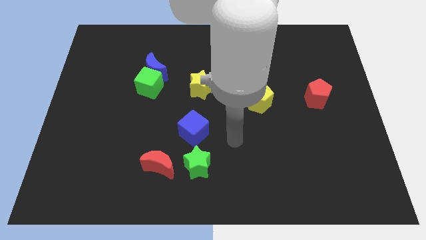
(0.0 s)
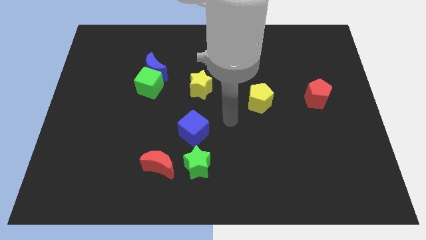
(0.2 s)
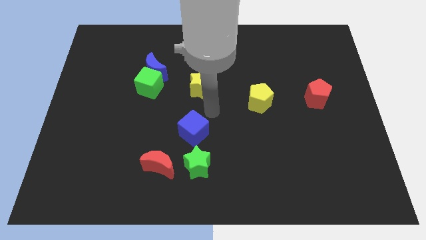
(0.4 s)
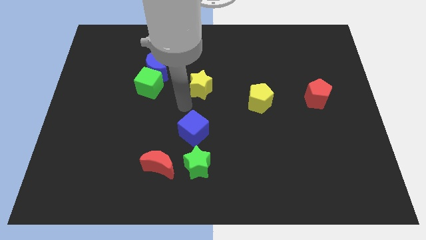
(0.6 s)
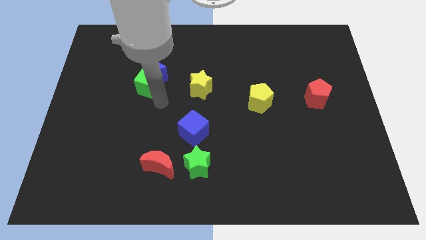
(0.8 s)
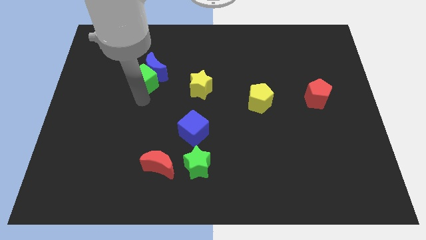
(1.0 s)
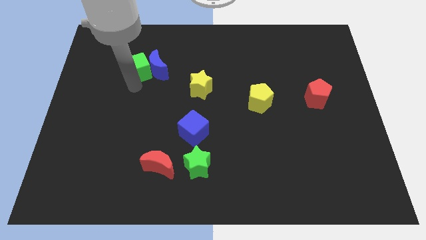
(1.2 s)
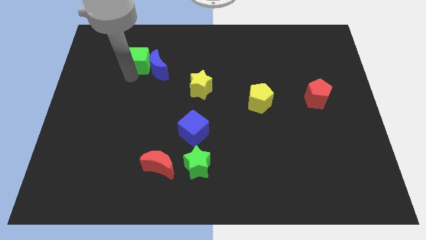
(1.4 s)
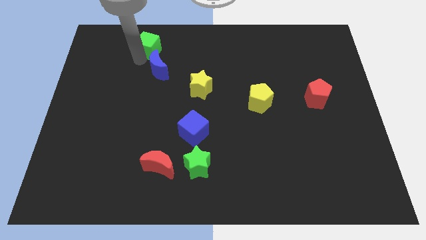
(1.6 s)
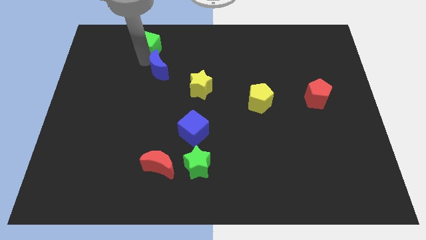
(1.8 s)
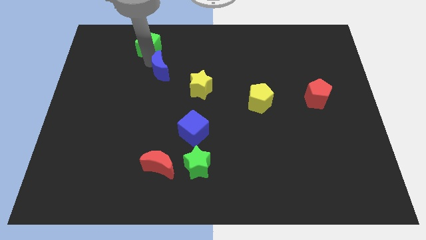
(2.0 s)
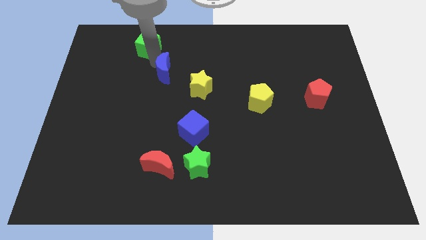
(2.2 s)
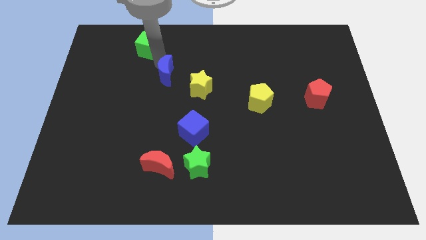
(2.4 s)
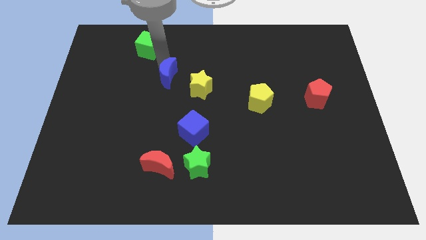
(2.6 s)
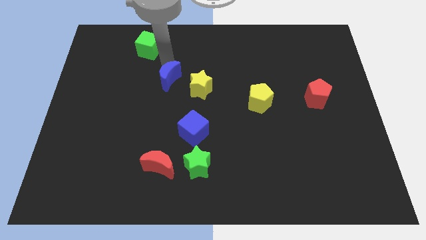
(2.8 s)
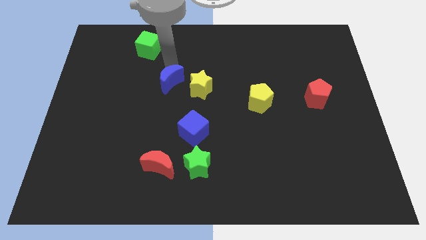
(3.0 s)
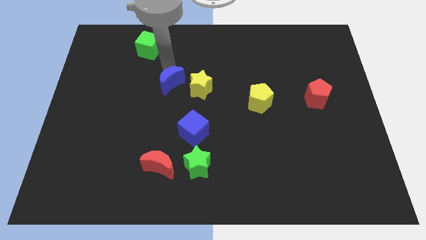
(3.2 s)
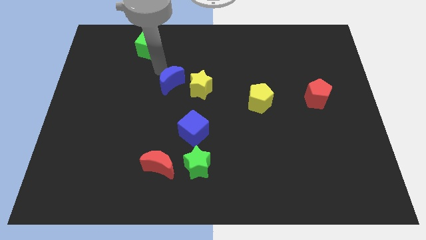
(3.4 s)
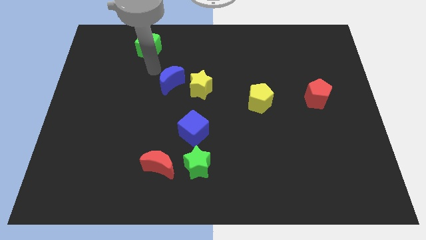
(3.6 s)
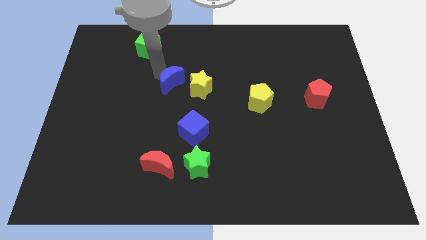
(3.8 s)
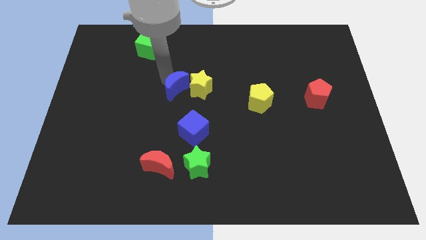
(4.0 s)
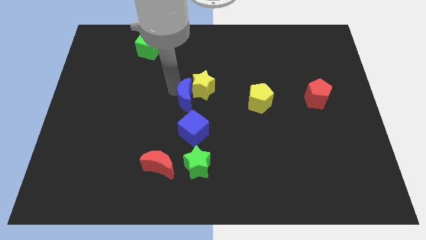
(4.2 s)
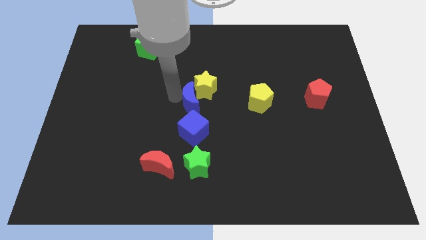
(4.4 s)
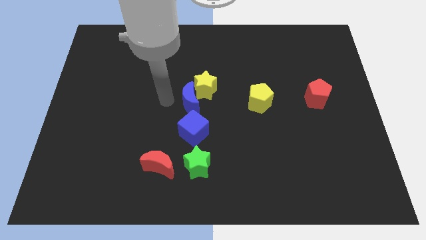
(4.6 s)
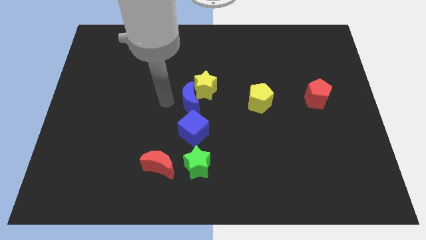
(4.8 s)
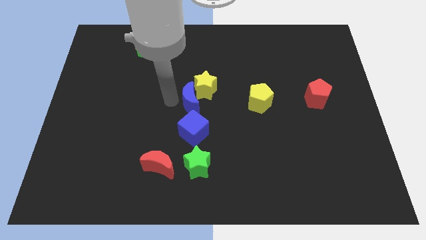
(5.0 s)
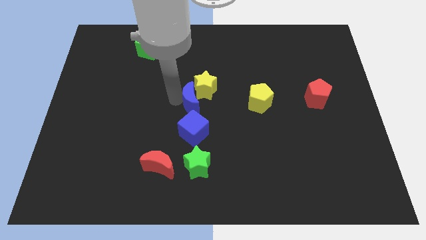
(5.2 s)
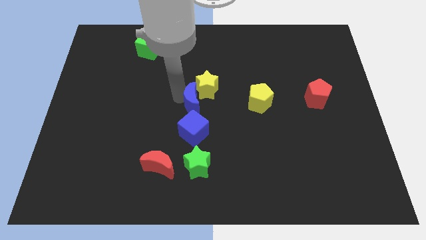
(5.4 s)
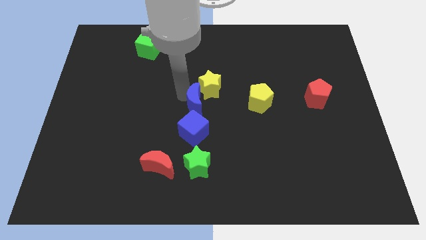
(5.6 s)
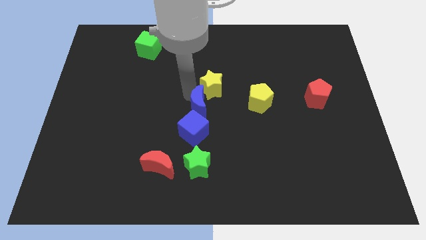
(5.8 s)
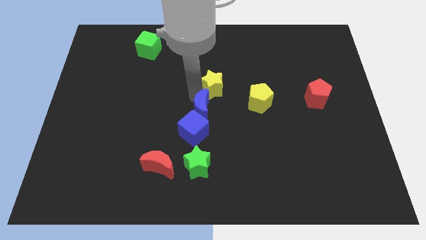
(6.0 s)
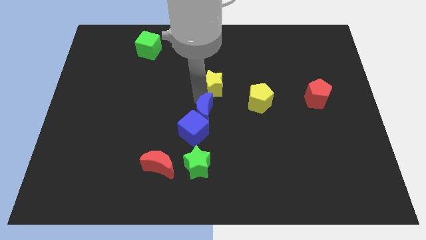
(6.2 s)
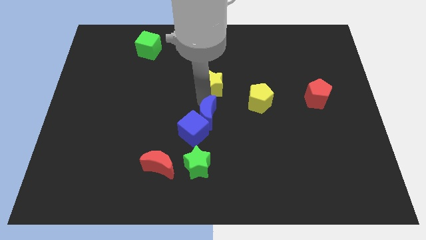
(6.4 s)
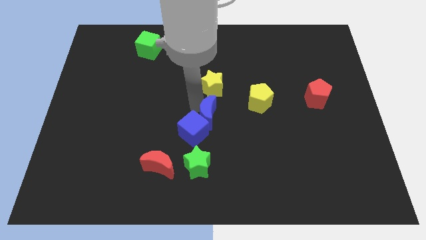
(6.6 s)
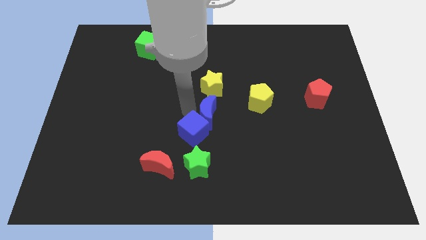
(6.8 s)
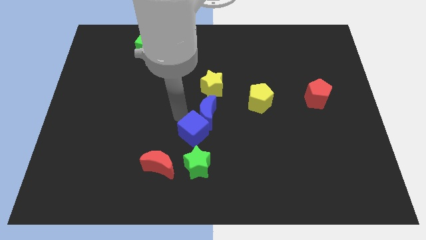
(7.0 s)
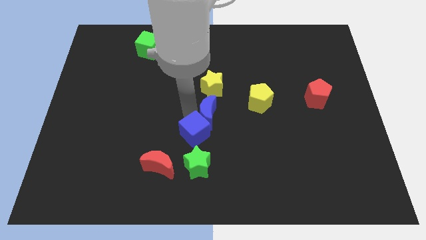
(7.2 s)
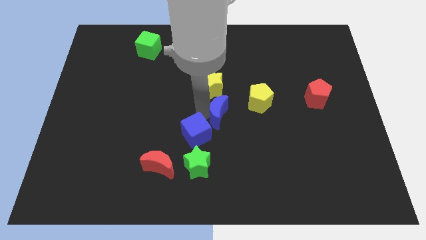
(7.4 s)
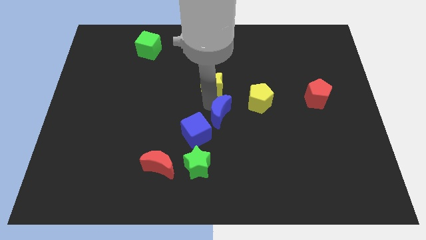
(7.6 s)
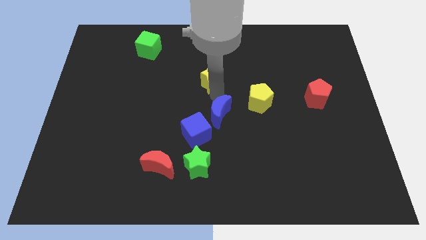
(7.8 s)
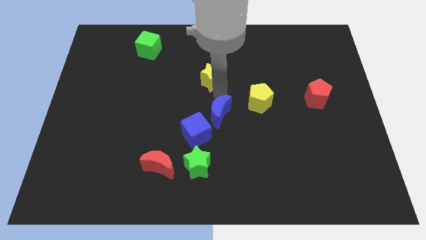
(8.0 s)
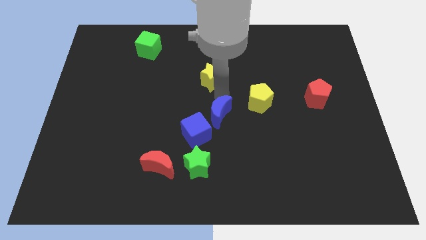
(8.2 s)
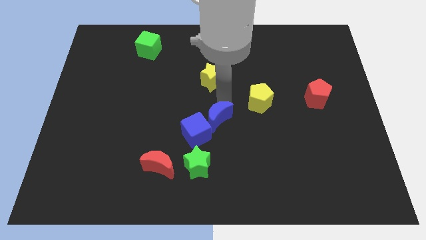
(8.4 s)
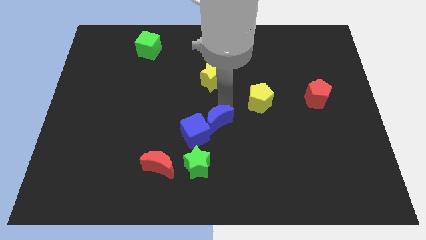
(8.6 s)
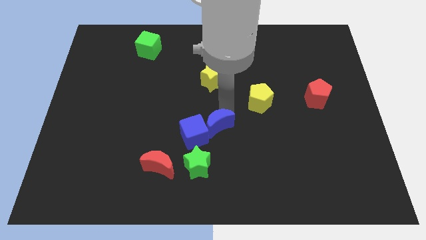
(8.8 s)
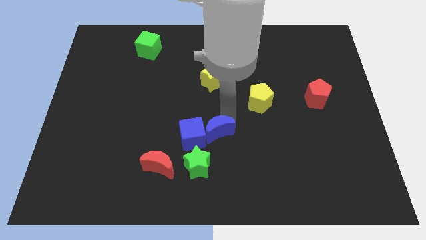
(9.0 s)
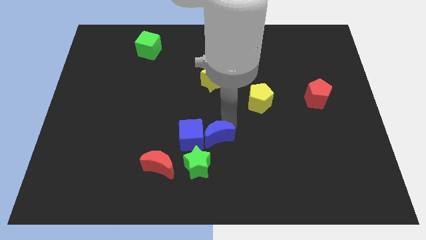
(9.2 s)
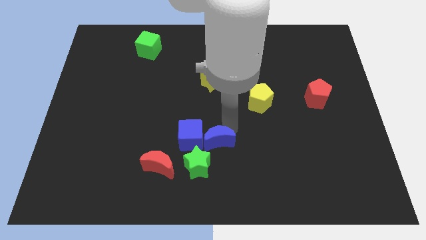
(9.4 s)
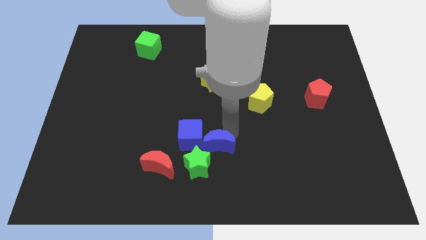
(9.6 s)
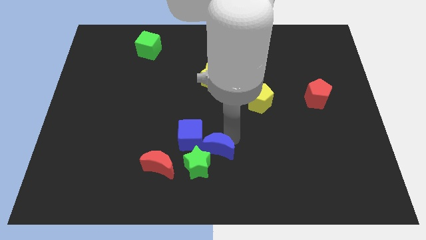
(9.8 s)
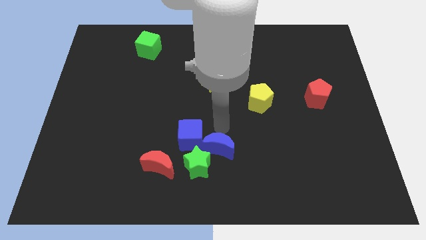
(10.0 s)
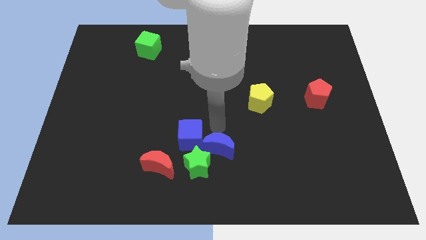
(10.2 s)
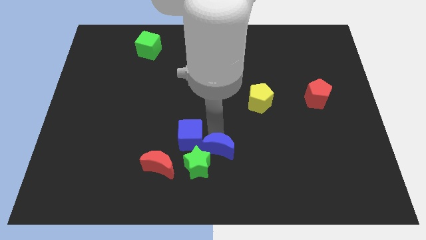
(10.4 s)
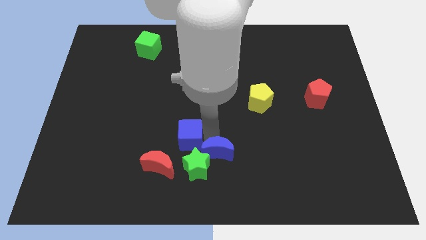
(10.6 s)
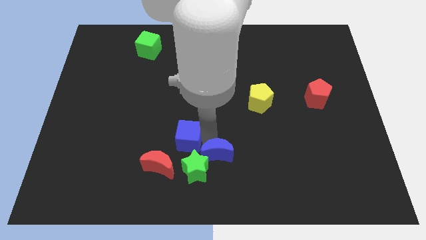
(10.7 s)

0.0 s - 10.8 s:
slide the blue moon to the bottom

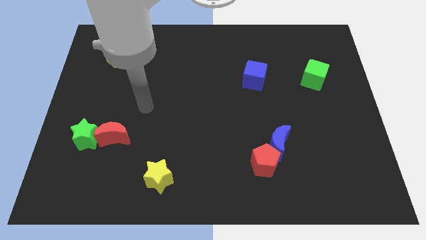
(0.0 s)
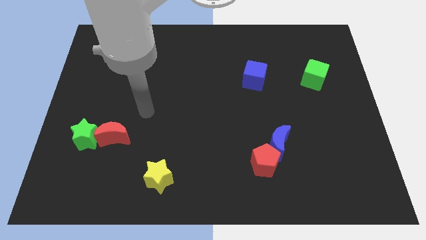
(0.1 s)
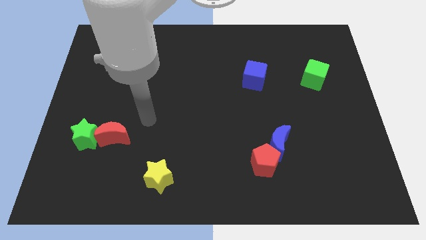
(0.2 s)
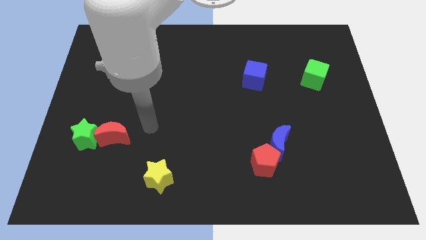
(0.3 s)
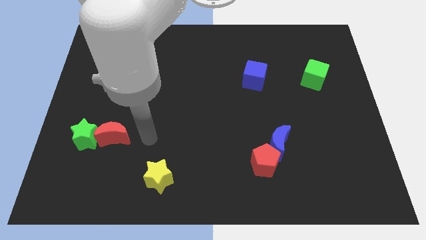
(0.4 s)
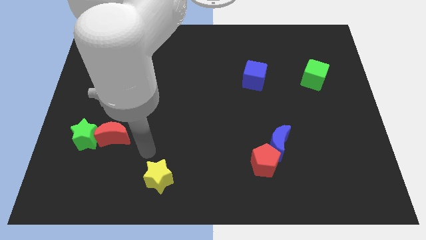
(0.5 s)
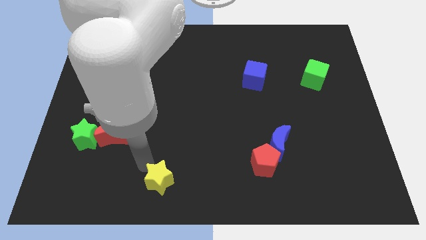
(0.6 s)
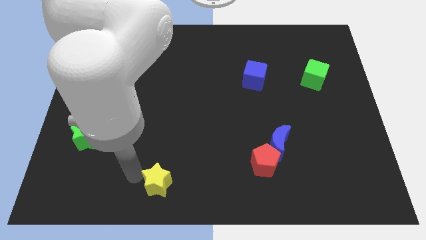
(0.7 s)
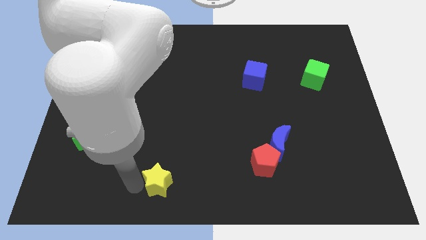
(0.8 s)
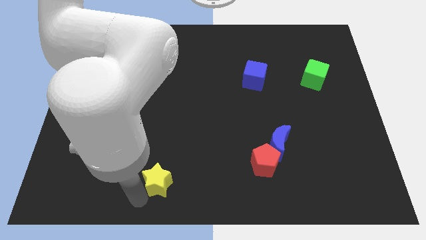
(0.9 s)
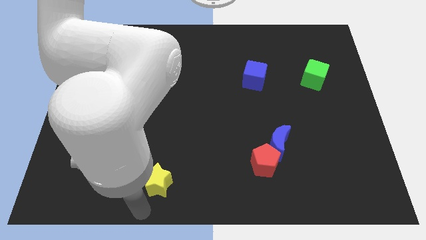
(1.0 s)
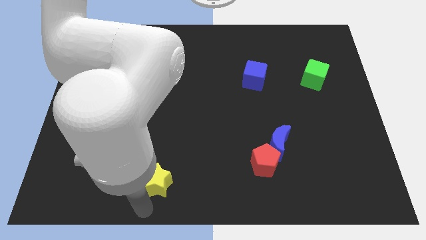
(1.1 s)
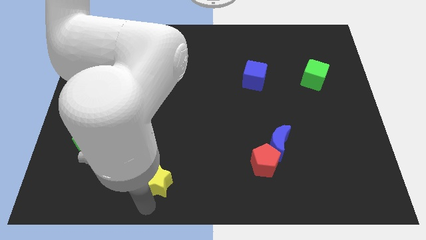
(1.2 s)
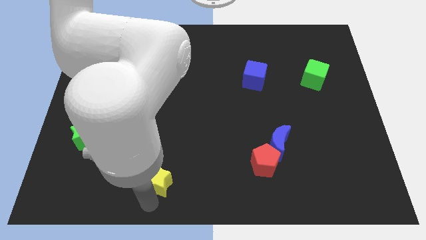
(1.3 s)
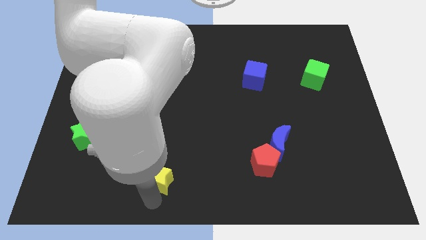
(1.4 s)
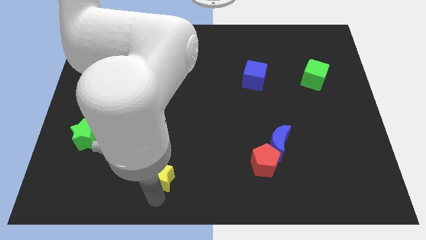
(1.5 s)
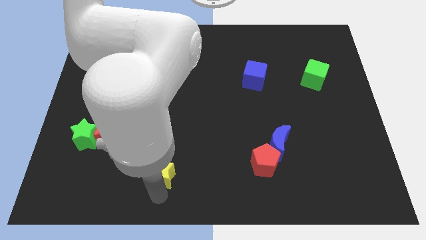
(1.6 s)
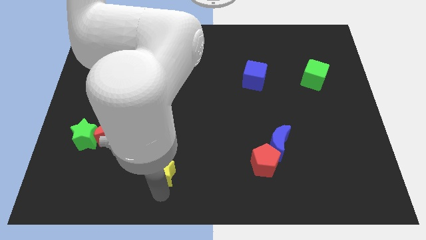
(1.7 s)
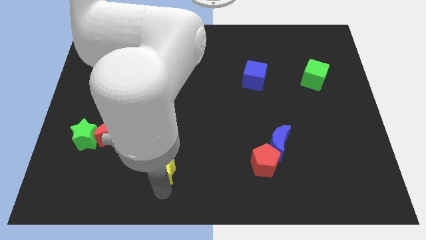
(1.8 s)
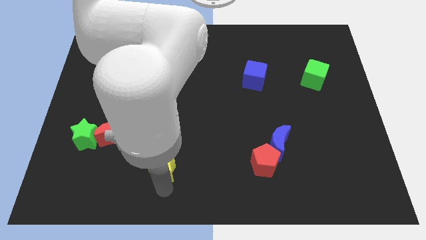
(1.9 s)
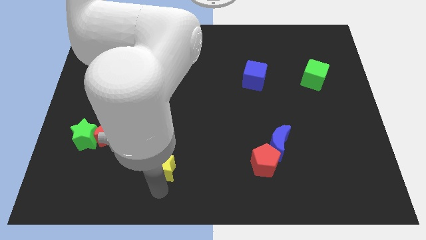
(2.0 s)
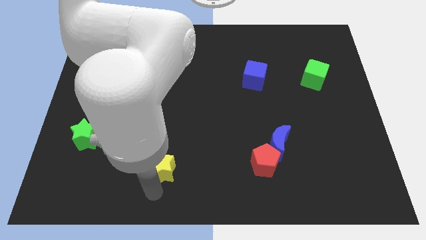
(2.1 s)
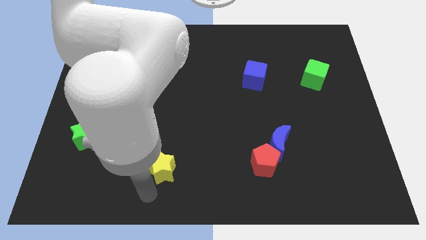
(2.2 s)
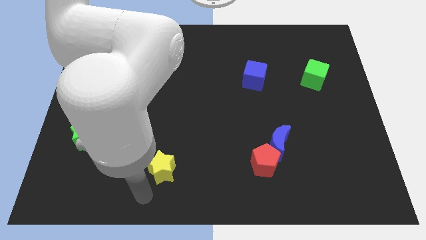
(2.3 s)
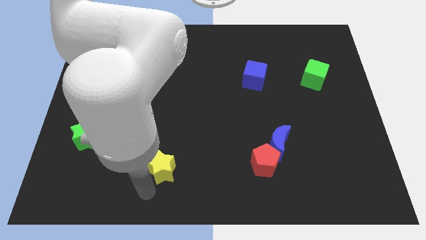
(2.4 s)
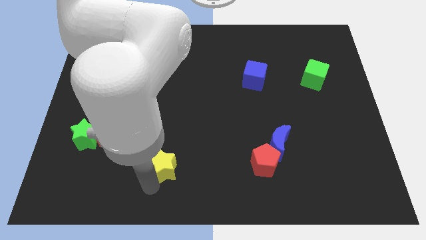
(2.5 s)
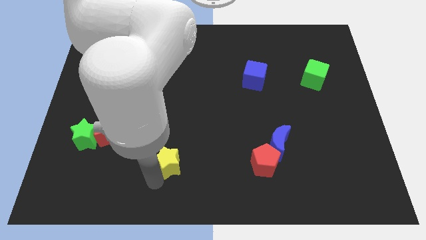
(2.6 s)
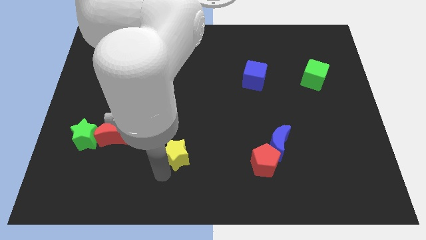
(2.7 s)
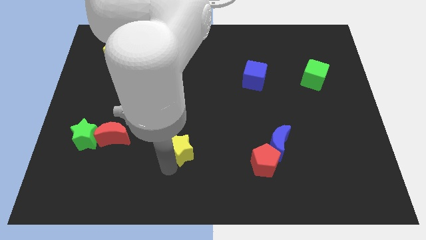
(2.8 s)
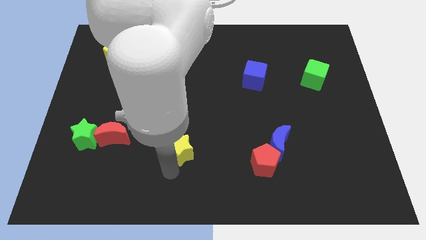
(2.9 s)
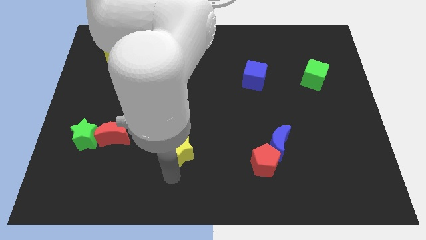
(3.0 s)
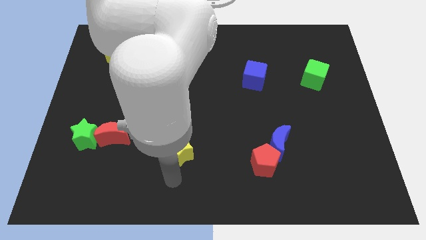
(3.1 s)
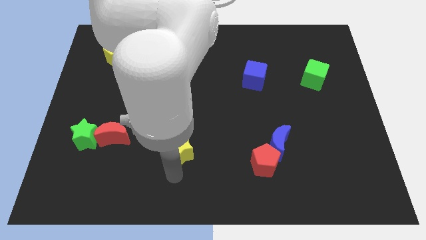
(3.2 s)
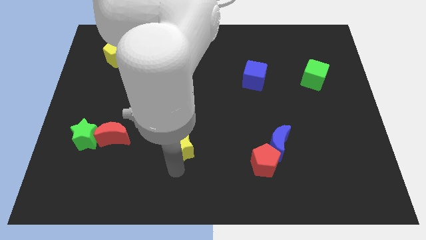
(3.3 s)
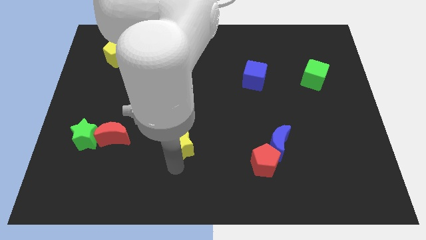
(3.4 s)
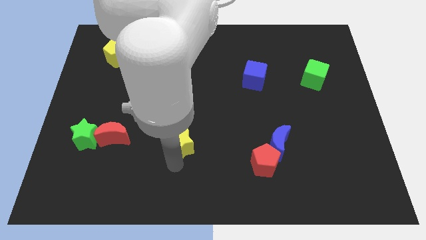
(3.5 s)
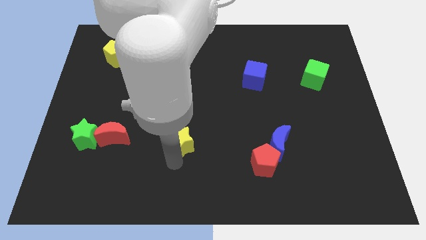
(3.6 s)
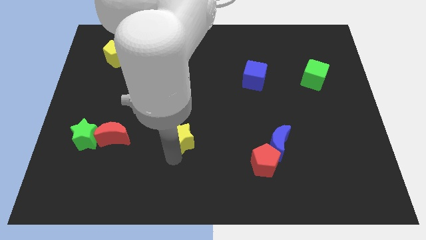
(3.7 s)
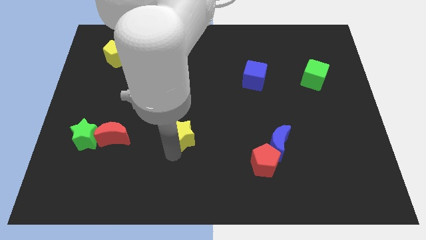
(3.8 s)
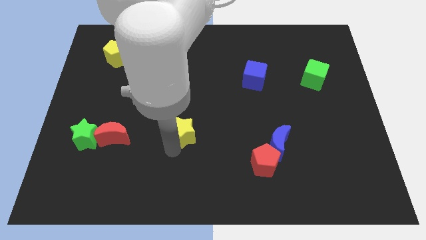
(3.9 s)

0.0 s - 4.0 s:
slide the yellow star to the center of the board
